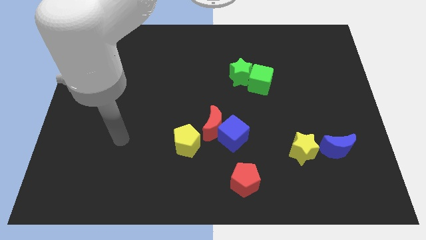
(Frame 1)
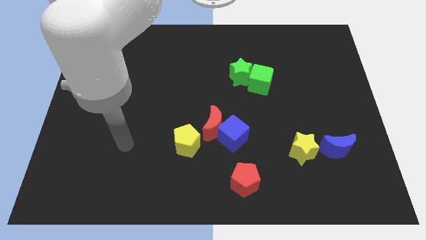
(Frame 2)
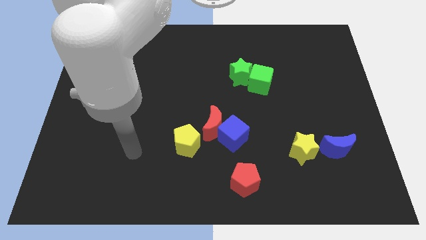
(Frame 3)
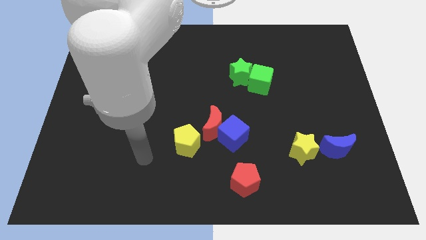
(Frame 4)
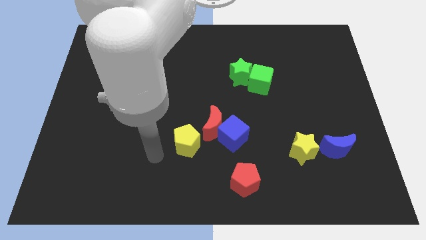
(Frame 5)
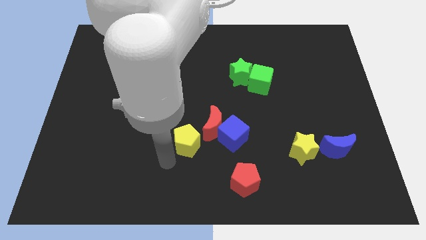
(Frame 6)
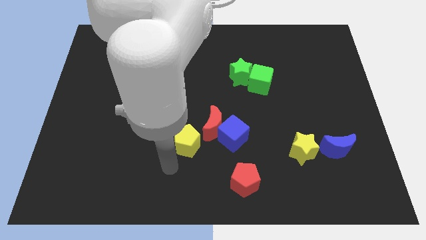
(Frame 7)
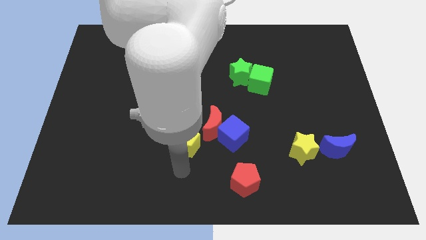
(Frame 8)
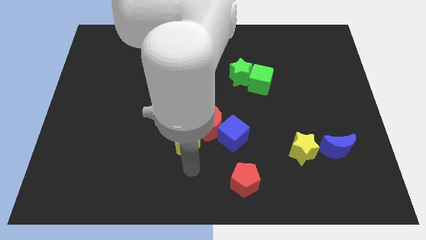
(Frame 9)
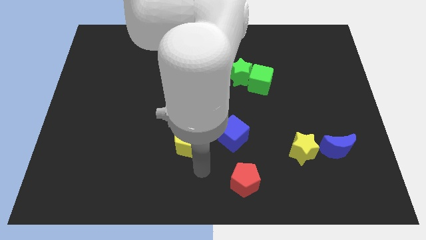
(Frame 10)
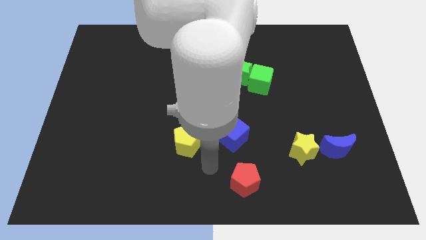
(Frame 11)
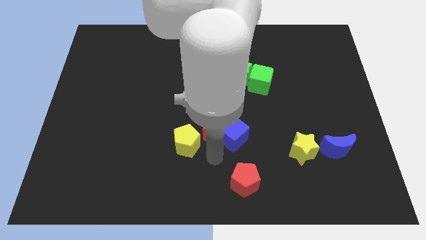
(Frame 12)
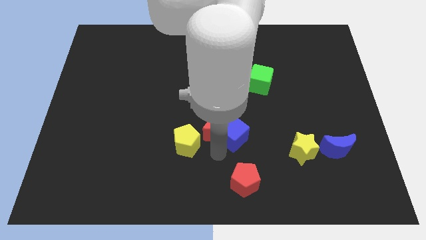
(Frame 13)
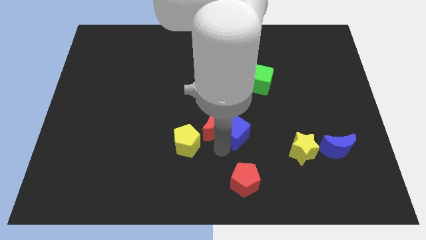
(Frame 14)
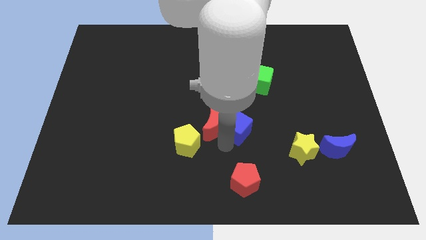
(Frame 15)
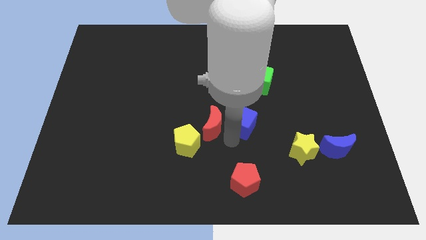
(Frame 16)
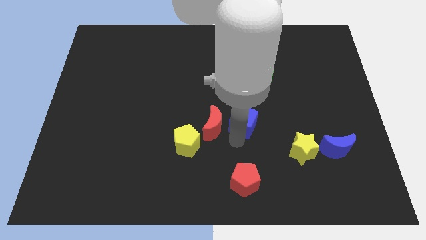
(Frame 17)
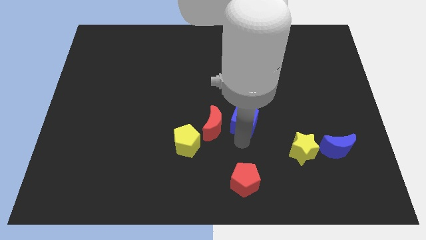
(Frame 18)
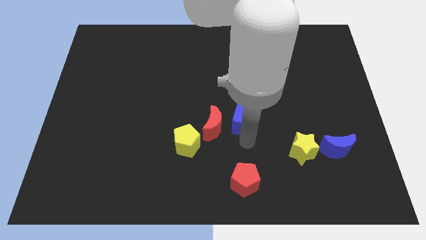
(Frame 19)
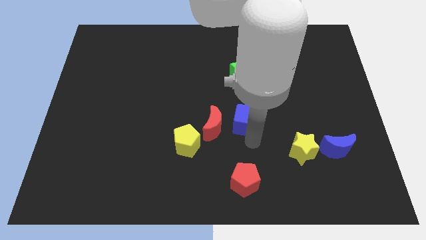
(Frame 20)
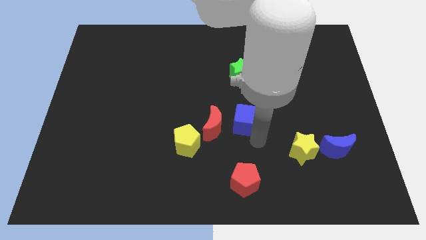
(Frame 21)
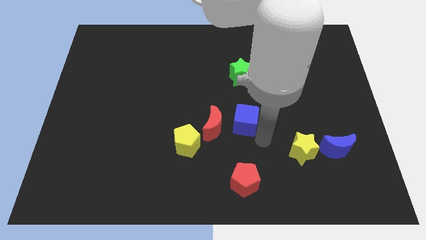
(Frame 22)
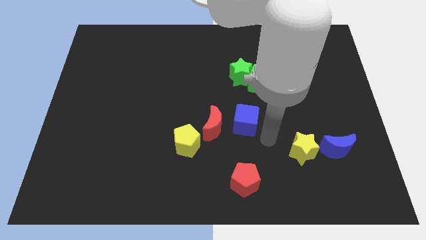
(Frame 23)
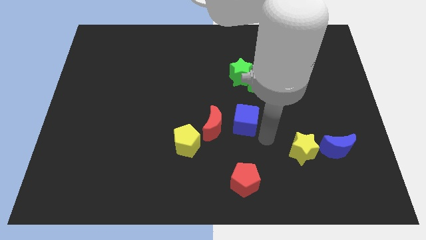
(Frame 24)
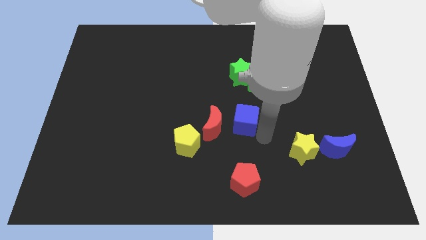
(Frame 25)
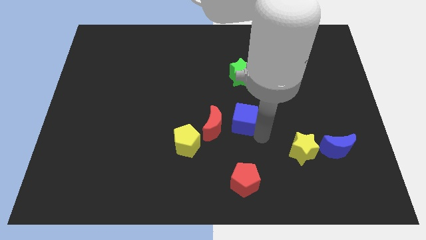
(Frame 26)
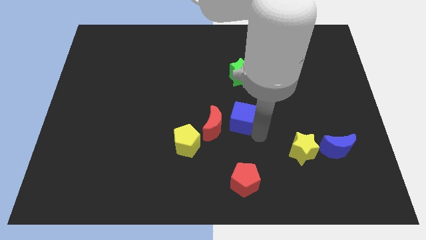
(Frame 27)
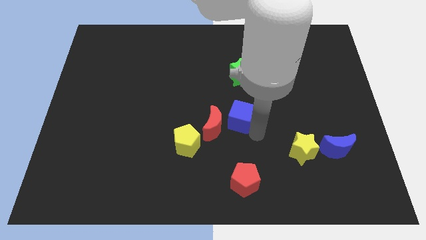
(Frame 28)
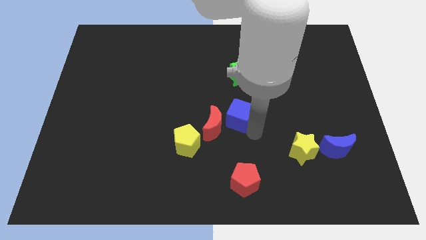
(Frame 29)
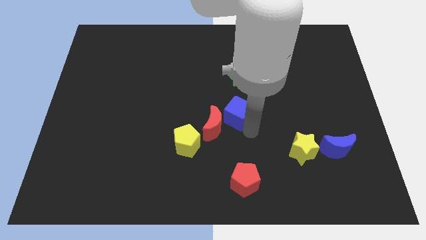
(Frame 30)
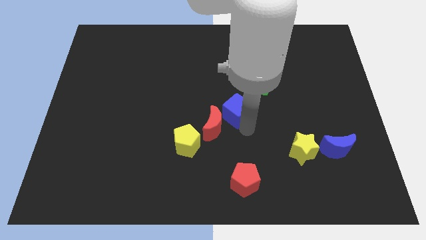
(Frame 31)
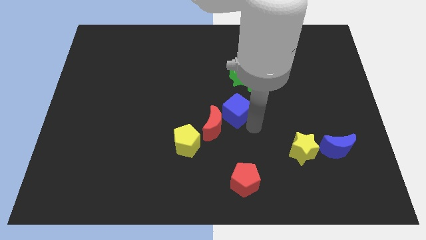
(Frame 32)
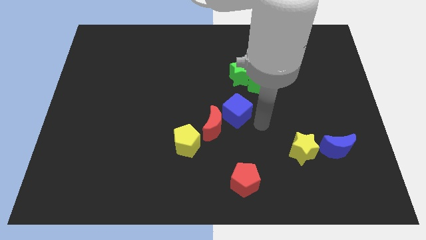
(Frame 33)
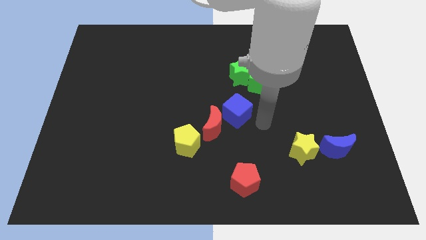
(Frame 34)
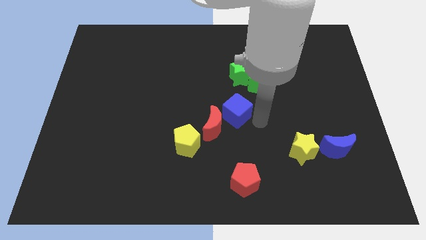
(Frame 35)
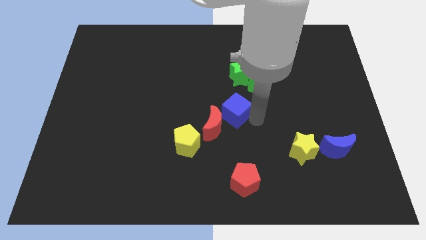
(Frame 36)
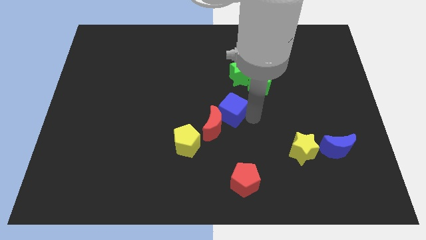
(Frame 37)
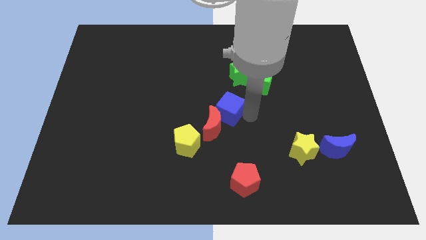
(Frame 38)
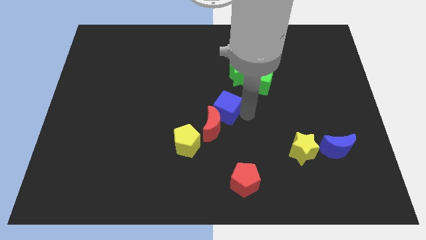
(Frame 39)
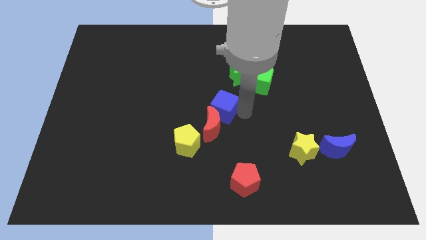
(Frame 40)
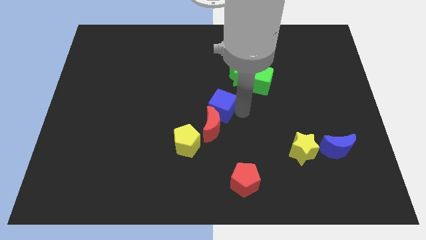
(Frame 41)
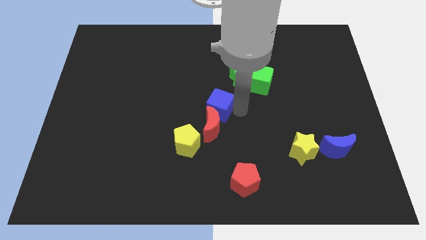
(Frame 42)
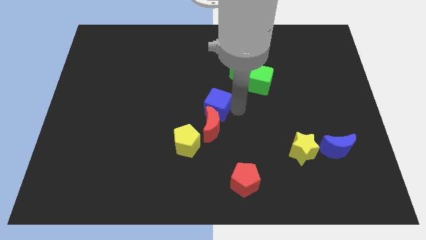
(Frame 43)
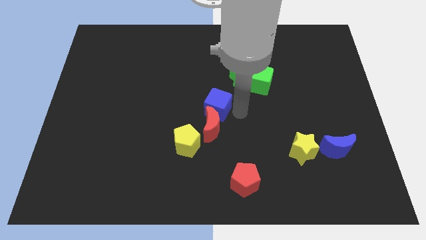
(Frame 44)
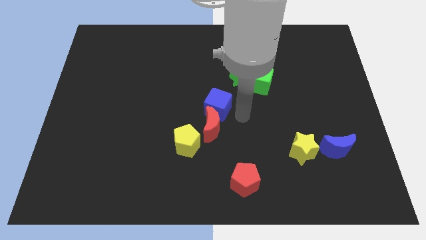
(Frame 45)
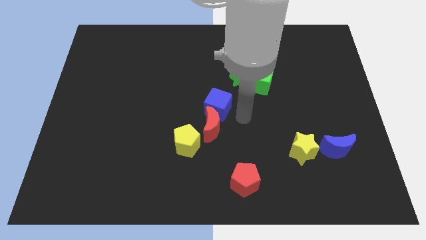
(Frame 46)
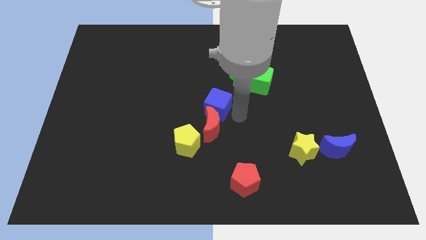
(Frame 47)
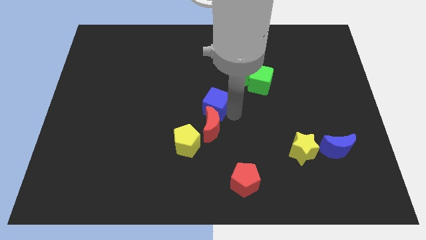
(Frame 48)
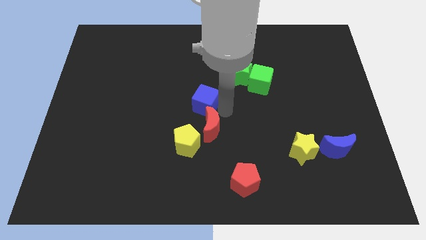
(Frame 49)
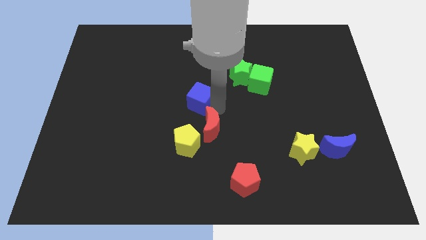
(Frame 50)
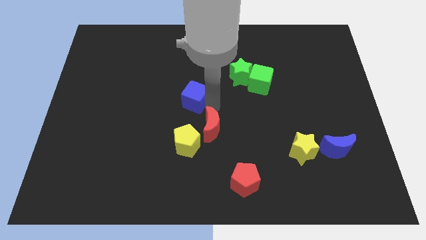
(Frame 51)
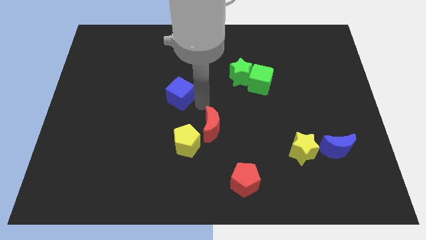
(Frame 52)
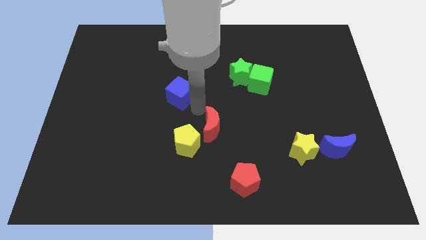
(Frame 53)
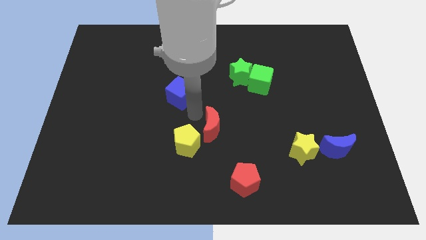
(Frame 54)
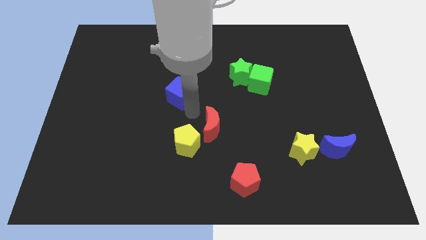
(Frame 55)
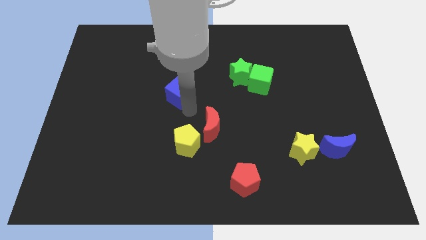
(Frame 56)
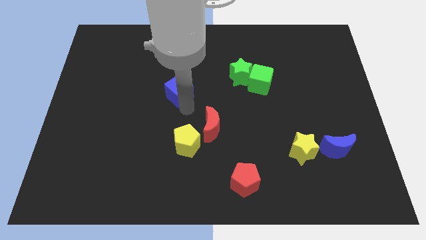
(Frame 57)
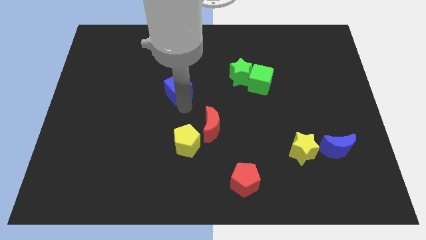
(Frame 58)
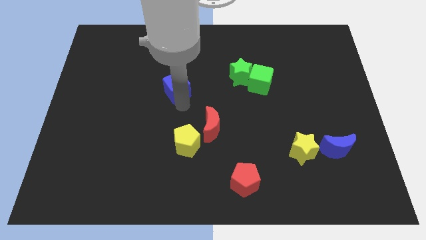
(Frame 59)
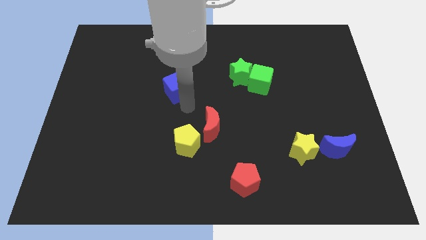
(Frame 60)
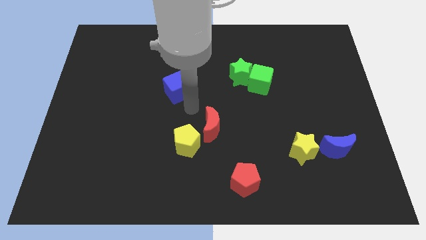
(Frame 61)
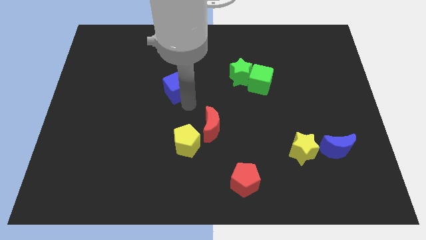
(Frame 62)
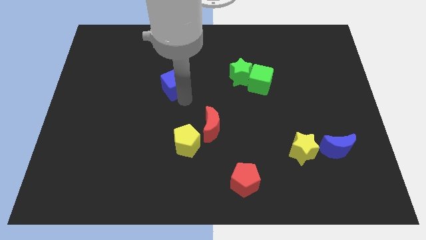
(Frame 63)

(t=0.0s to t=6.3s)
move the blue cube up and to the left diagonally

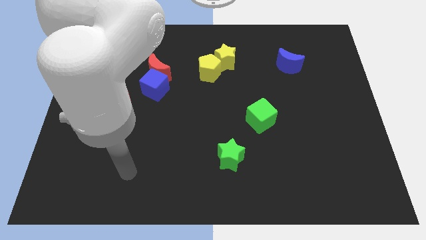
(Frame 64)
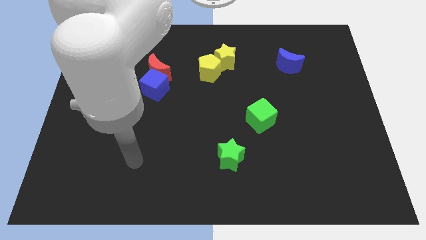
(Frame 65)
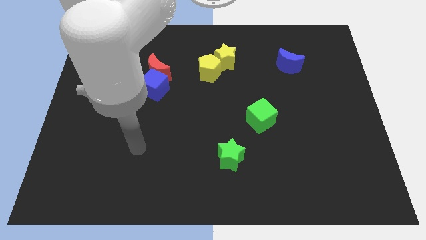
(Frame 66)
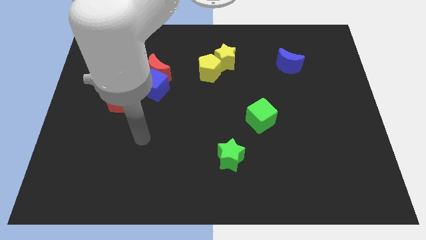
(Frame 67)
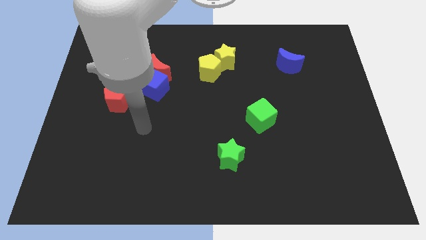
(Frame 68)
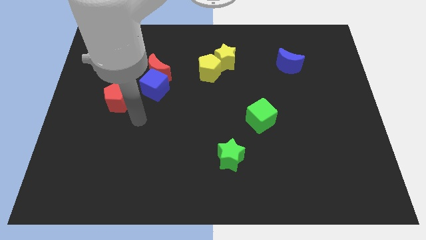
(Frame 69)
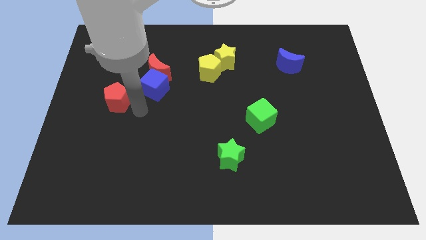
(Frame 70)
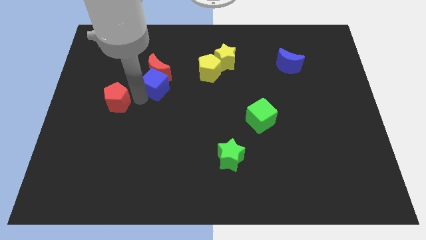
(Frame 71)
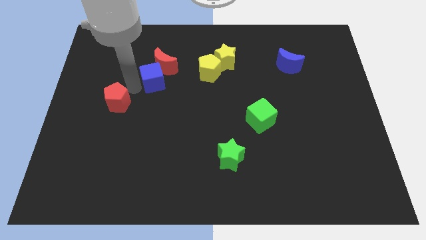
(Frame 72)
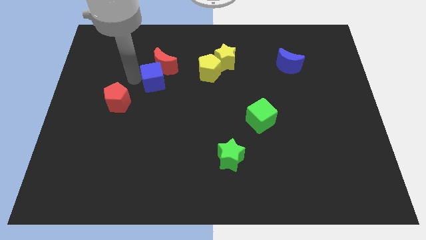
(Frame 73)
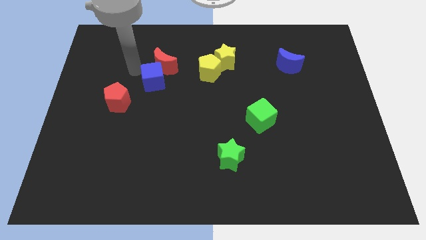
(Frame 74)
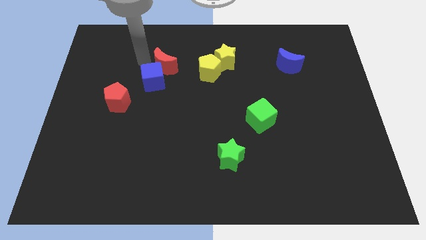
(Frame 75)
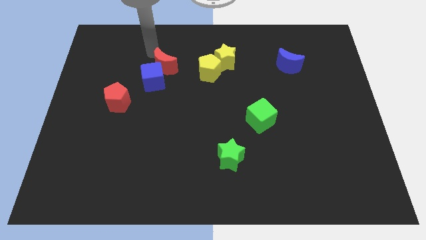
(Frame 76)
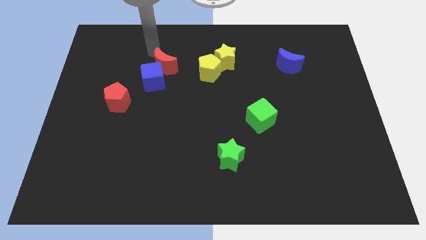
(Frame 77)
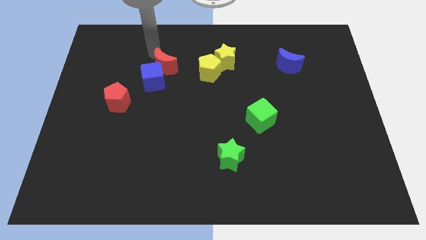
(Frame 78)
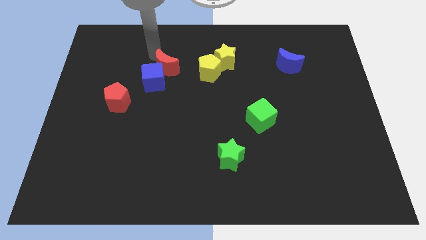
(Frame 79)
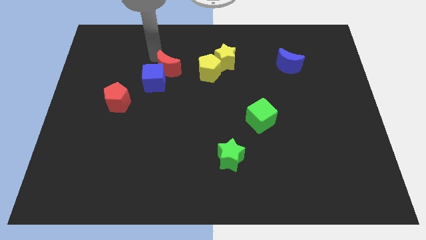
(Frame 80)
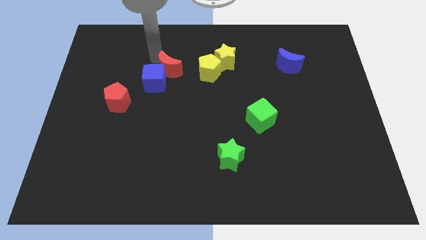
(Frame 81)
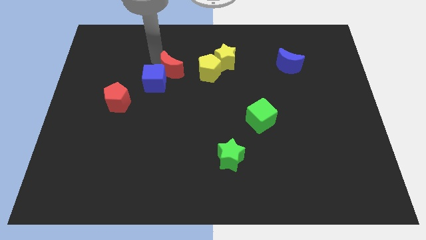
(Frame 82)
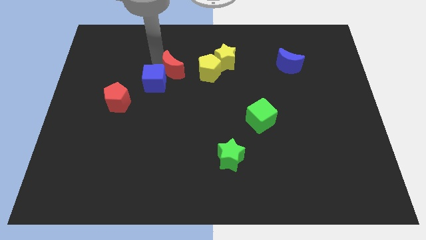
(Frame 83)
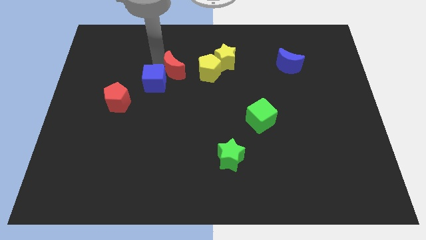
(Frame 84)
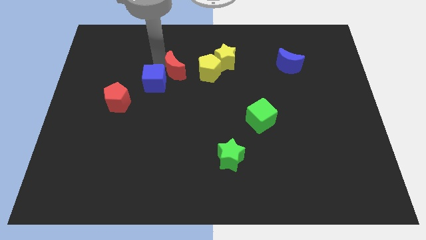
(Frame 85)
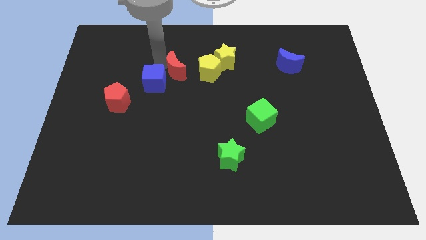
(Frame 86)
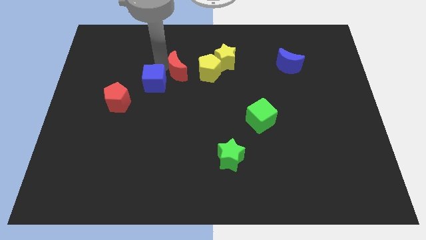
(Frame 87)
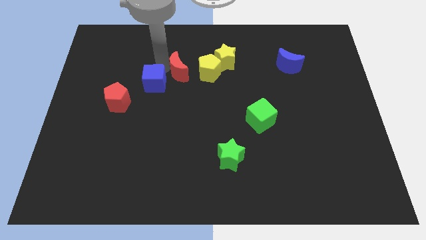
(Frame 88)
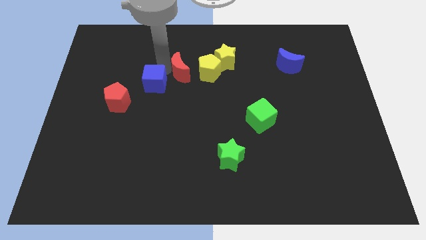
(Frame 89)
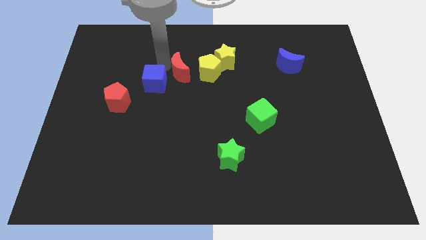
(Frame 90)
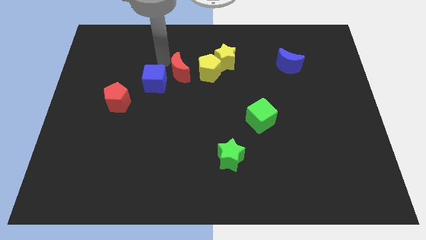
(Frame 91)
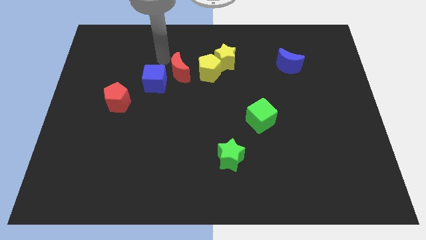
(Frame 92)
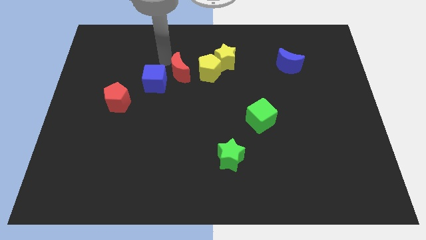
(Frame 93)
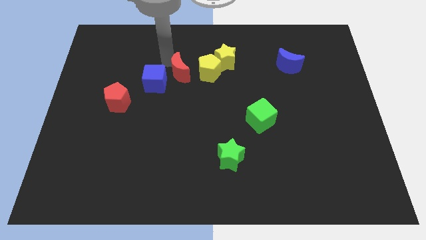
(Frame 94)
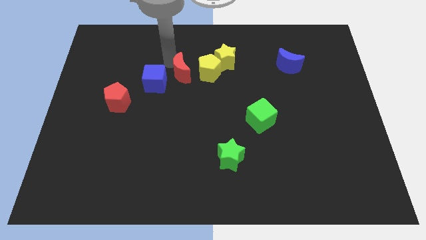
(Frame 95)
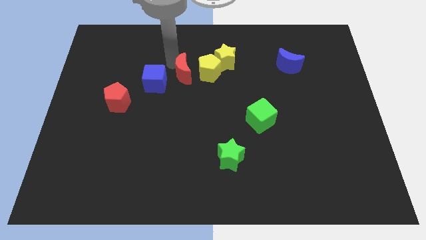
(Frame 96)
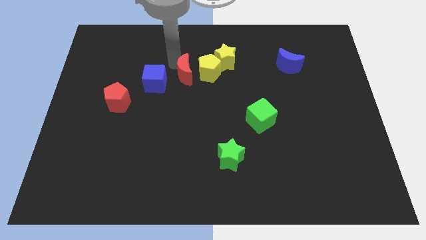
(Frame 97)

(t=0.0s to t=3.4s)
push the red moon slightly to the right
